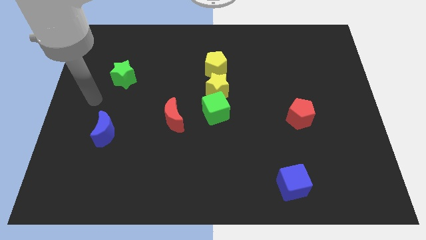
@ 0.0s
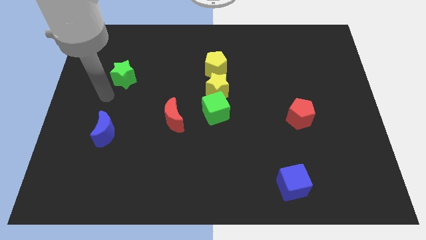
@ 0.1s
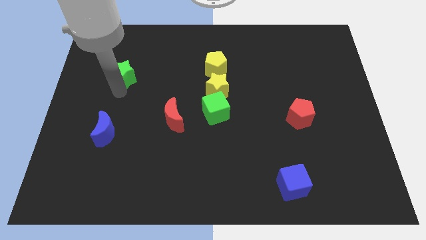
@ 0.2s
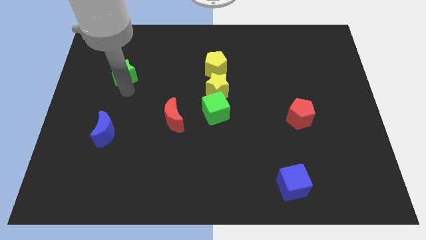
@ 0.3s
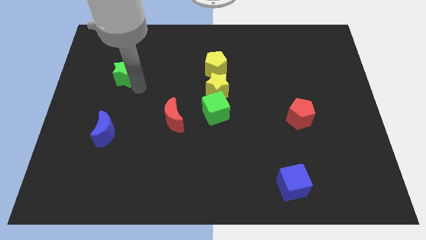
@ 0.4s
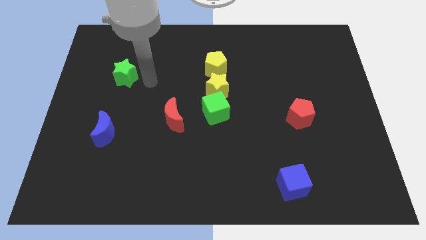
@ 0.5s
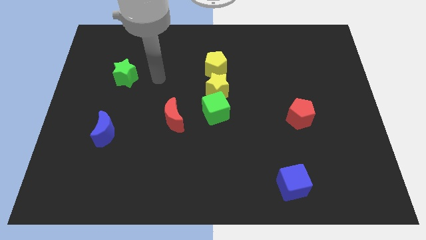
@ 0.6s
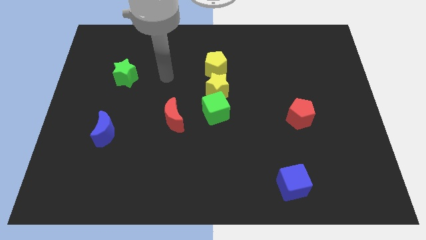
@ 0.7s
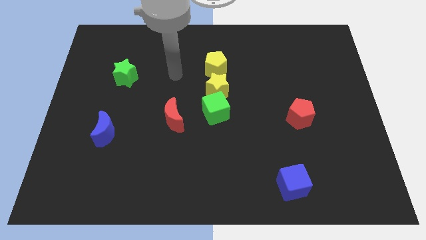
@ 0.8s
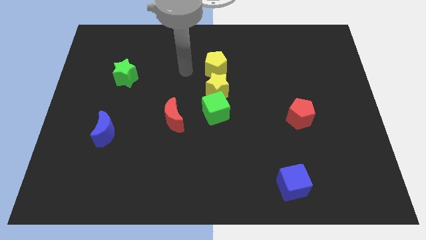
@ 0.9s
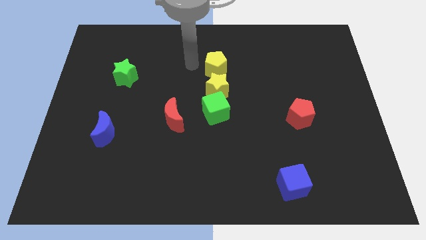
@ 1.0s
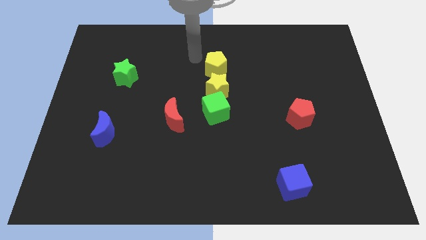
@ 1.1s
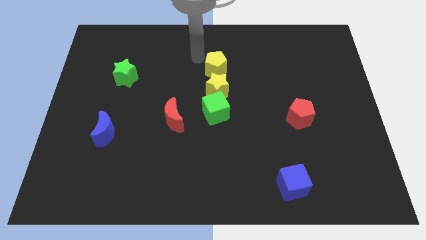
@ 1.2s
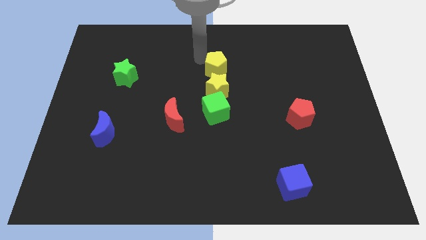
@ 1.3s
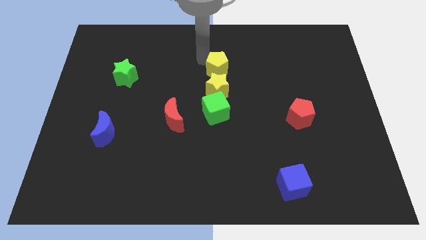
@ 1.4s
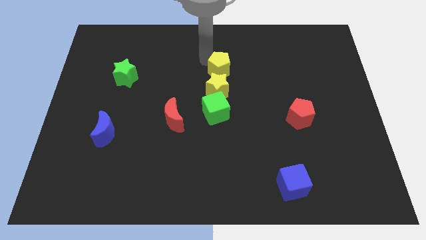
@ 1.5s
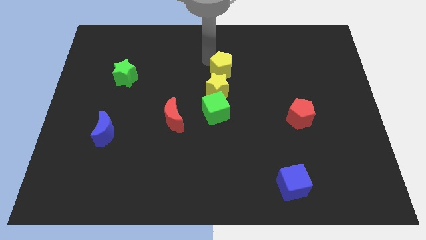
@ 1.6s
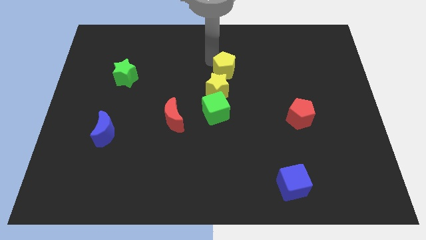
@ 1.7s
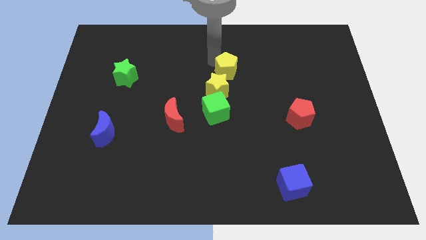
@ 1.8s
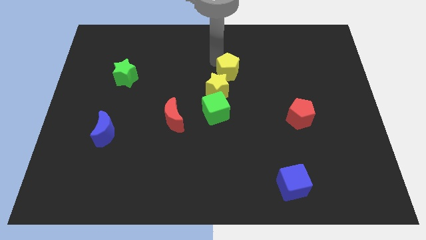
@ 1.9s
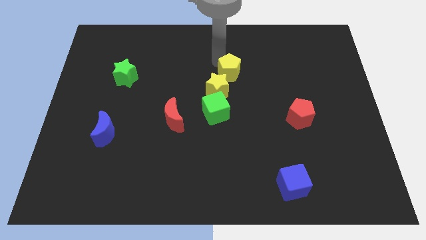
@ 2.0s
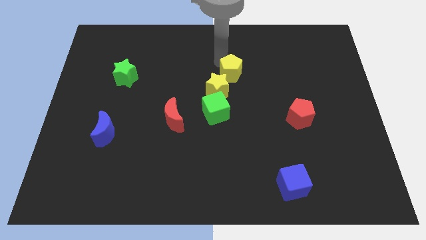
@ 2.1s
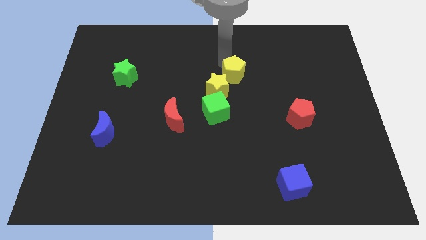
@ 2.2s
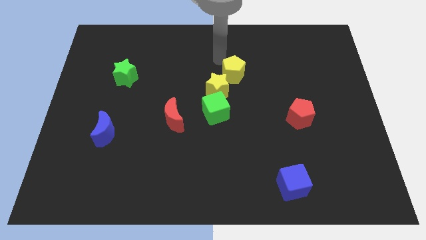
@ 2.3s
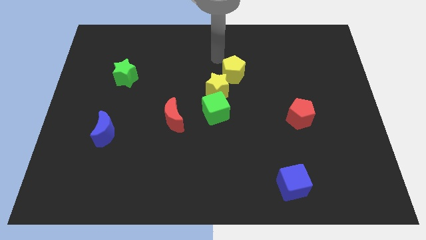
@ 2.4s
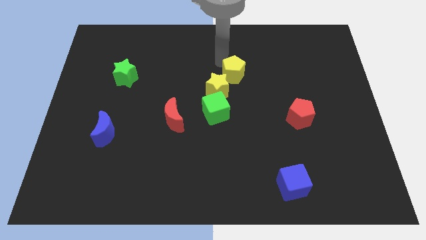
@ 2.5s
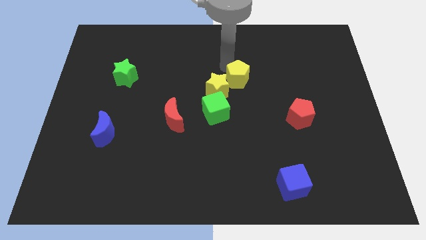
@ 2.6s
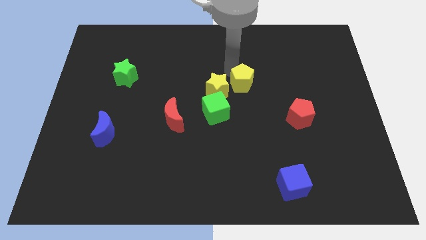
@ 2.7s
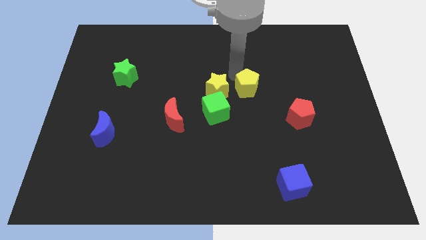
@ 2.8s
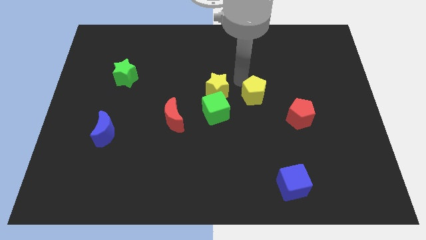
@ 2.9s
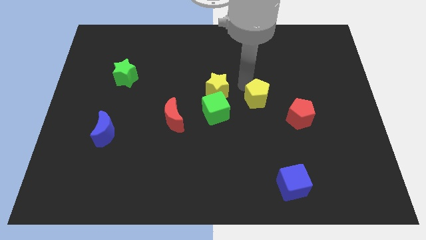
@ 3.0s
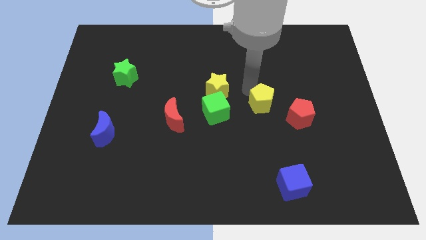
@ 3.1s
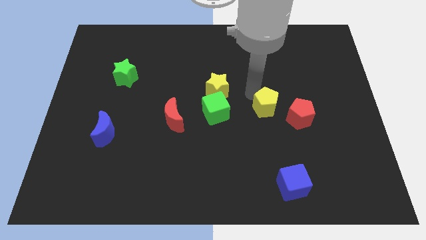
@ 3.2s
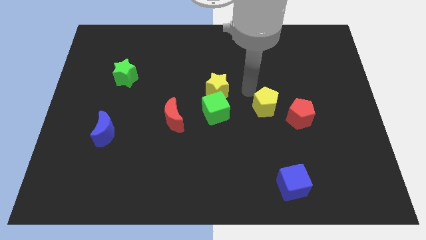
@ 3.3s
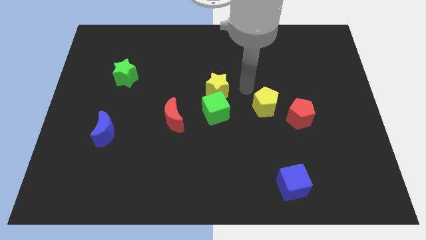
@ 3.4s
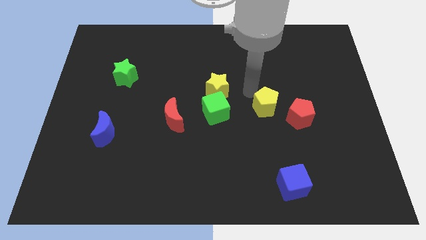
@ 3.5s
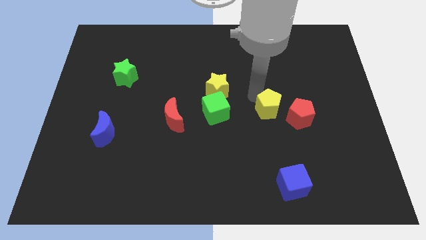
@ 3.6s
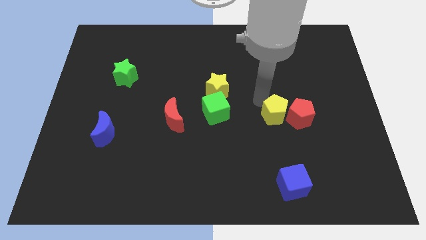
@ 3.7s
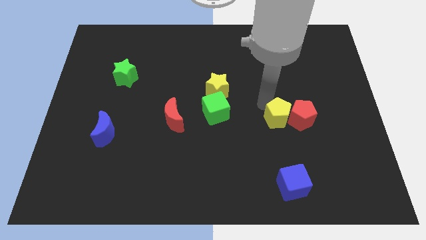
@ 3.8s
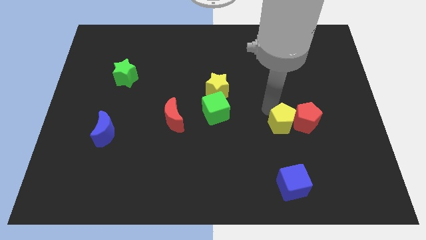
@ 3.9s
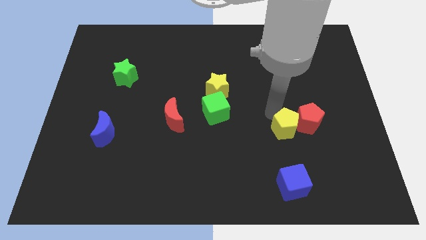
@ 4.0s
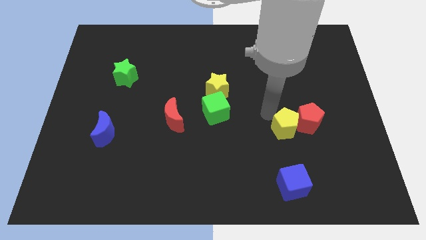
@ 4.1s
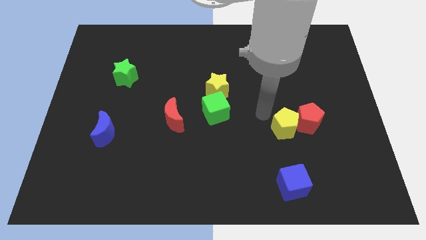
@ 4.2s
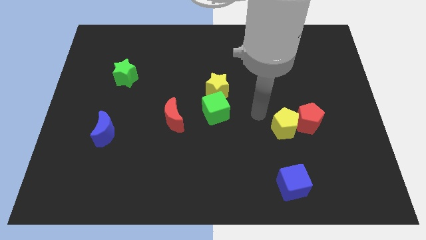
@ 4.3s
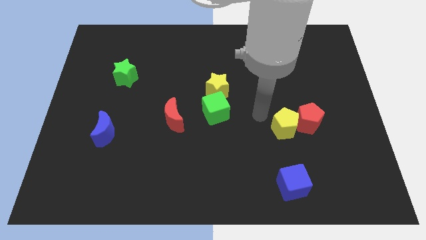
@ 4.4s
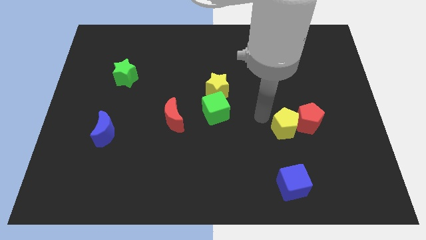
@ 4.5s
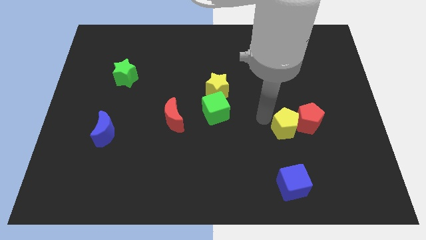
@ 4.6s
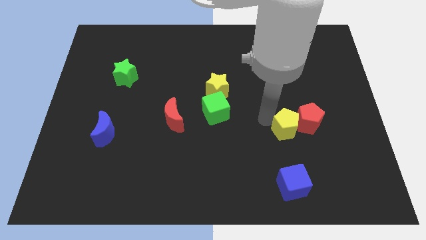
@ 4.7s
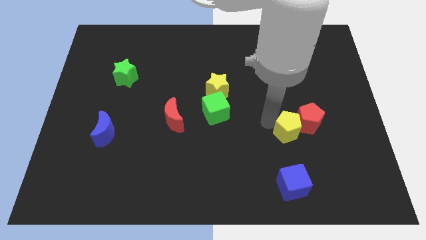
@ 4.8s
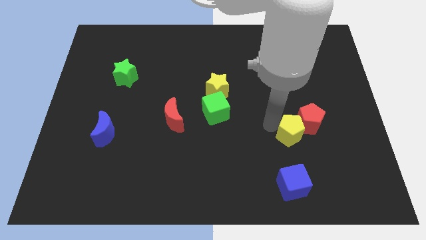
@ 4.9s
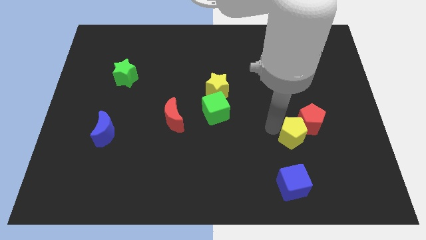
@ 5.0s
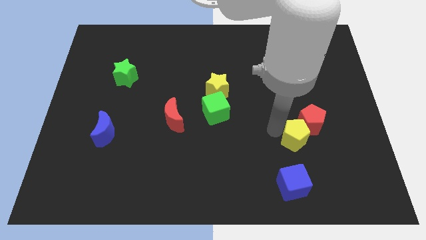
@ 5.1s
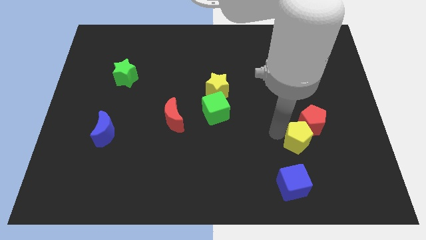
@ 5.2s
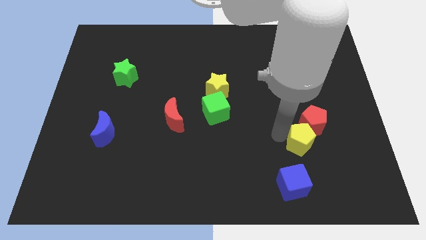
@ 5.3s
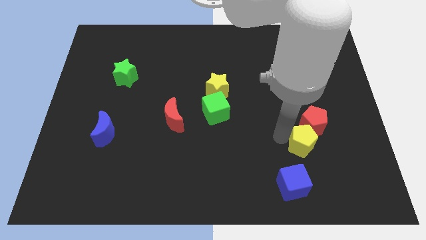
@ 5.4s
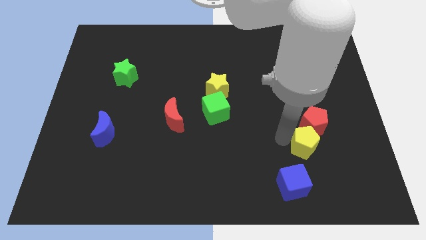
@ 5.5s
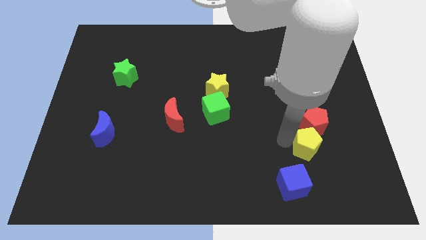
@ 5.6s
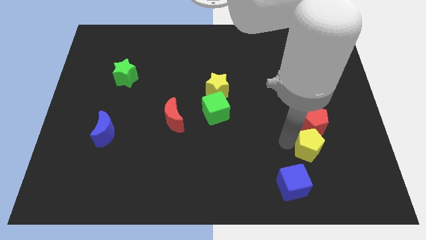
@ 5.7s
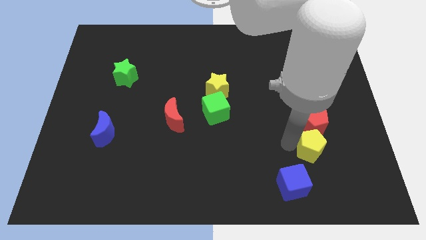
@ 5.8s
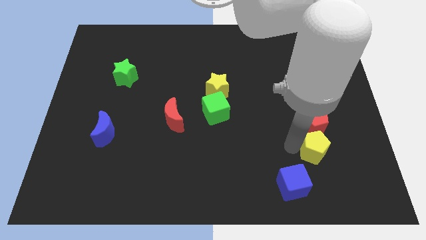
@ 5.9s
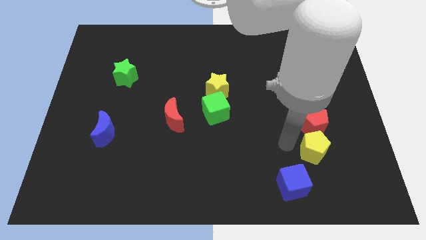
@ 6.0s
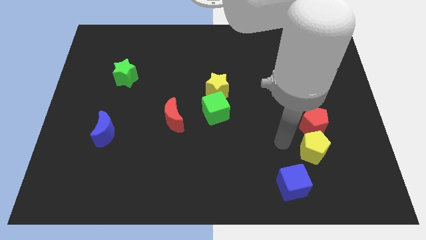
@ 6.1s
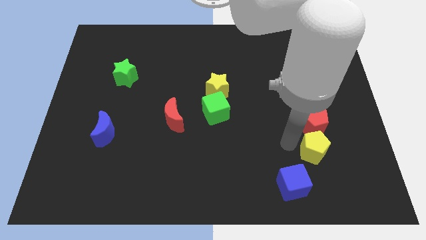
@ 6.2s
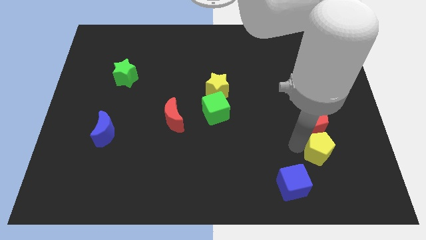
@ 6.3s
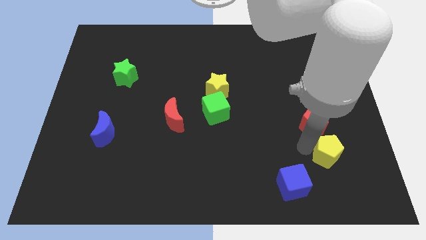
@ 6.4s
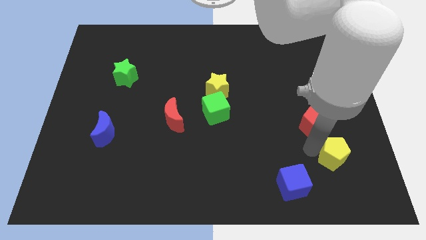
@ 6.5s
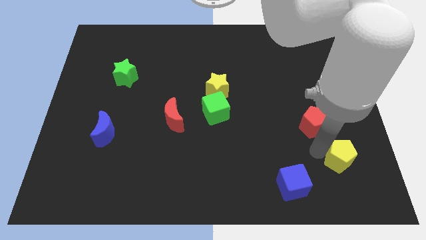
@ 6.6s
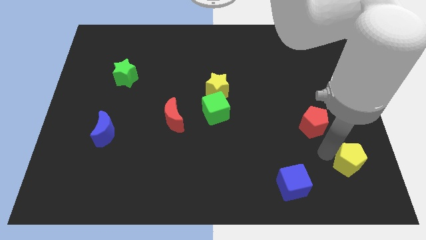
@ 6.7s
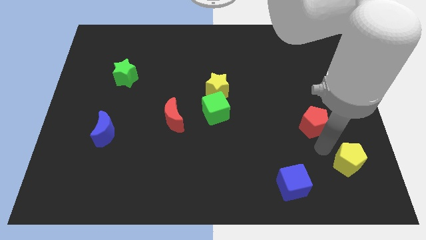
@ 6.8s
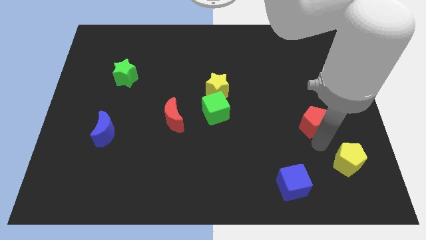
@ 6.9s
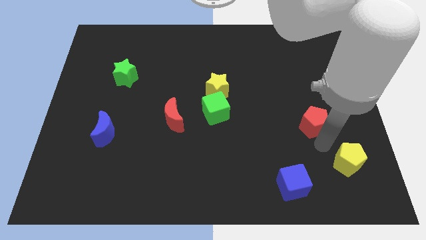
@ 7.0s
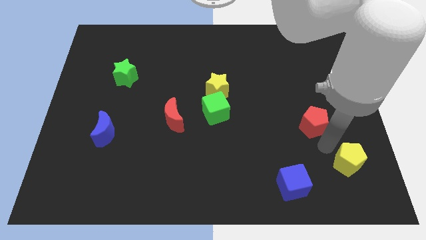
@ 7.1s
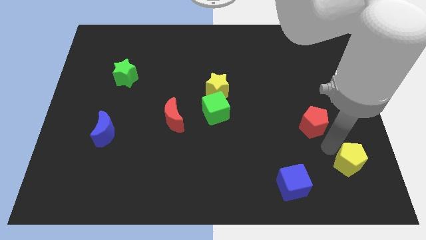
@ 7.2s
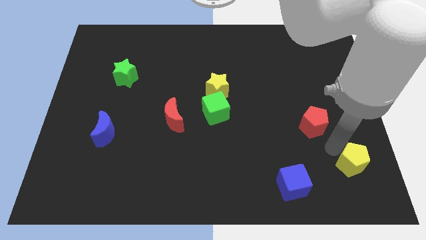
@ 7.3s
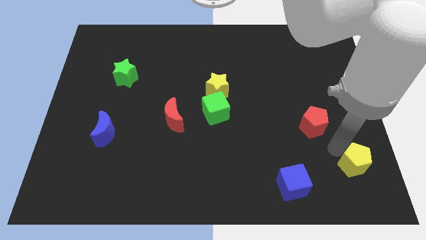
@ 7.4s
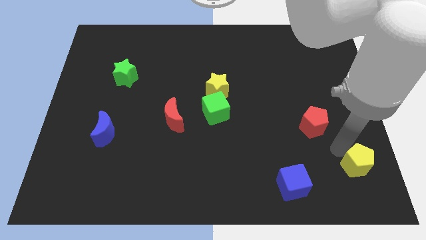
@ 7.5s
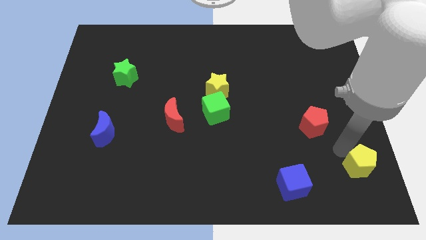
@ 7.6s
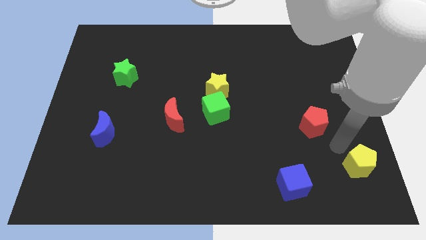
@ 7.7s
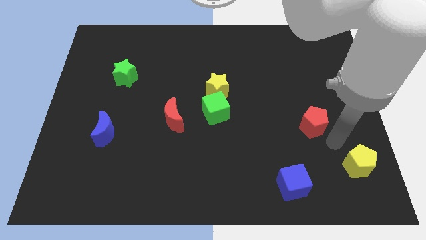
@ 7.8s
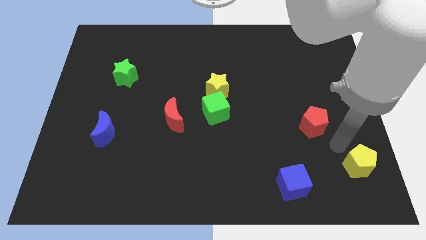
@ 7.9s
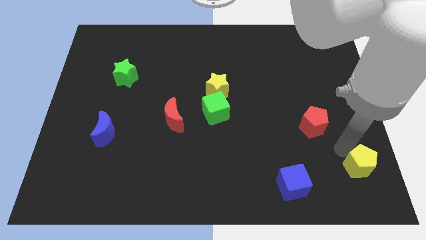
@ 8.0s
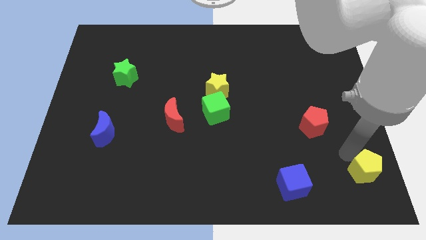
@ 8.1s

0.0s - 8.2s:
put the yellow pentagon to the bottom right corner
